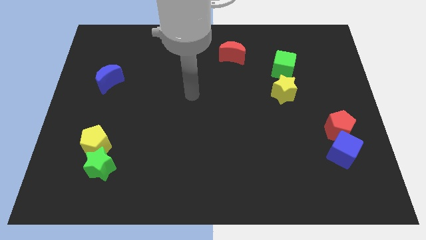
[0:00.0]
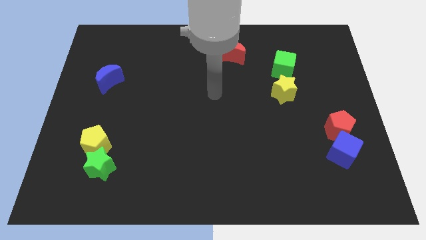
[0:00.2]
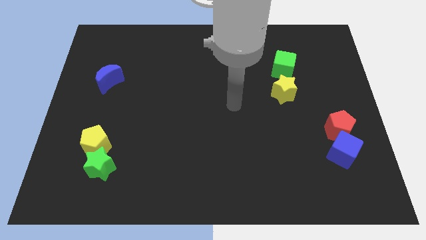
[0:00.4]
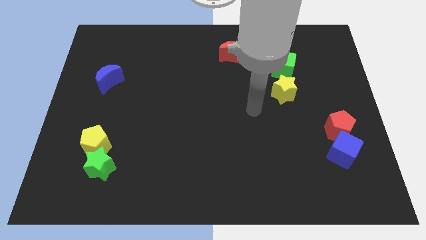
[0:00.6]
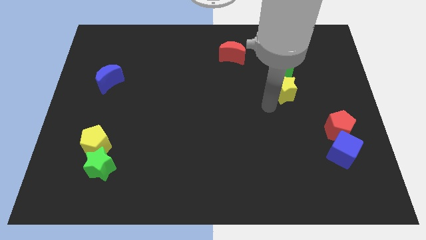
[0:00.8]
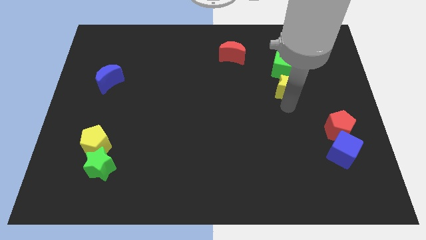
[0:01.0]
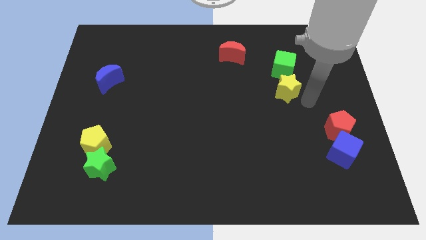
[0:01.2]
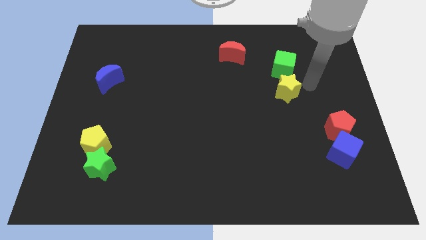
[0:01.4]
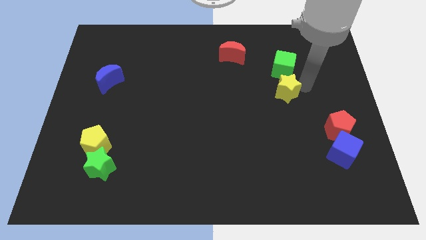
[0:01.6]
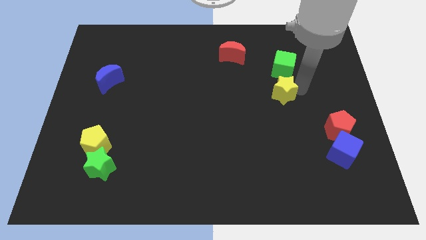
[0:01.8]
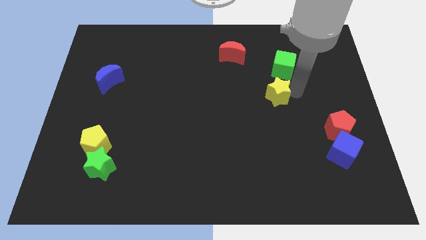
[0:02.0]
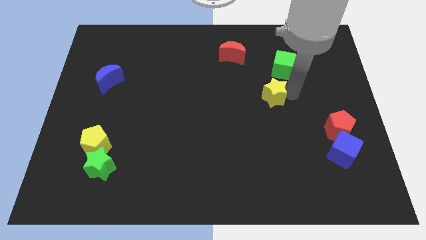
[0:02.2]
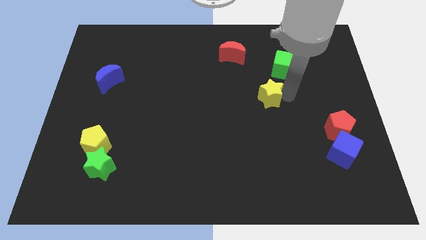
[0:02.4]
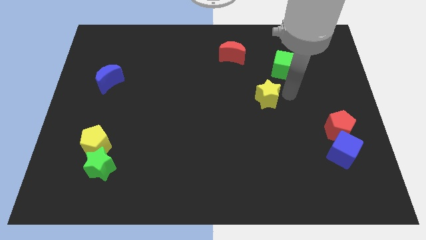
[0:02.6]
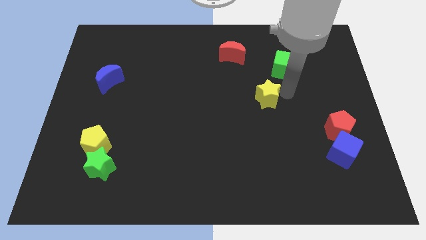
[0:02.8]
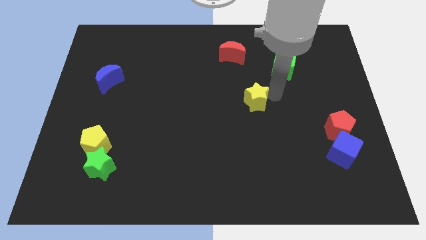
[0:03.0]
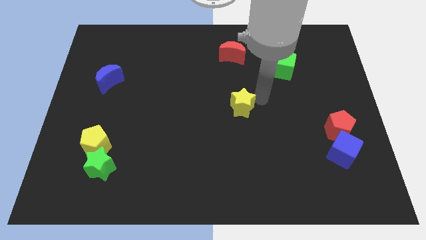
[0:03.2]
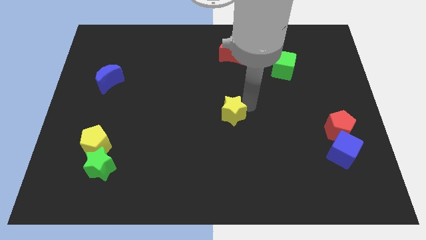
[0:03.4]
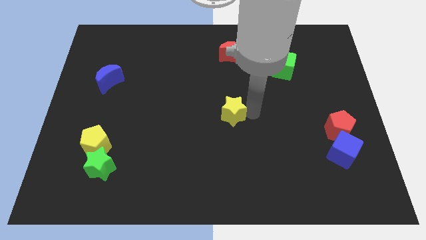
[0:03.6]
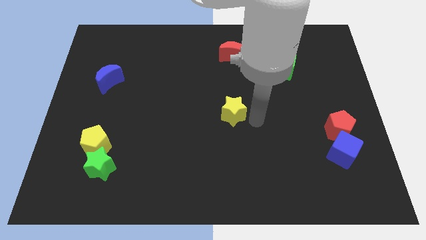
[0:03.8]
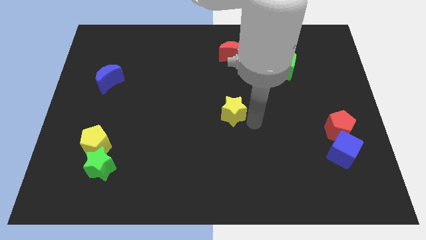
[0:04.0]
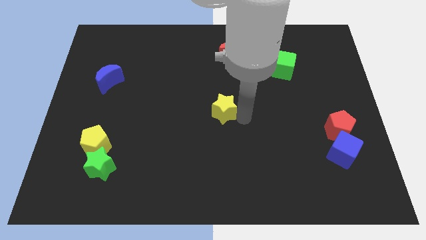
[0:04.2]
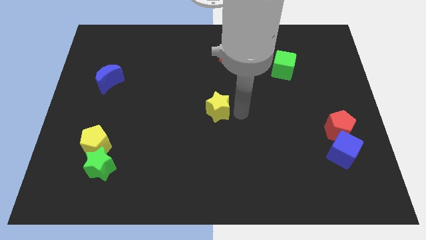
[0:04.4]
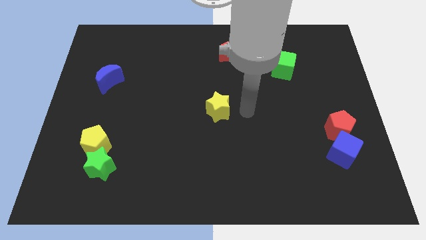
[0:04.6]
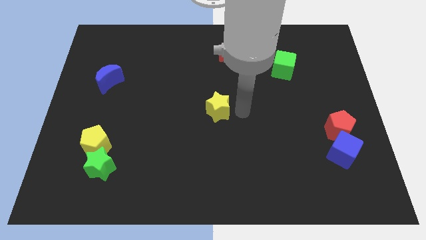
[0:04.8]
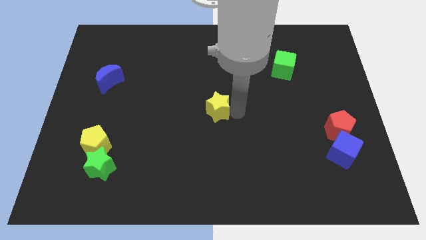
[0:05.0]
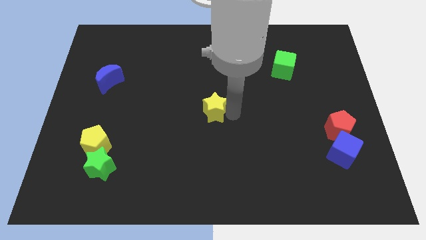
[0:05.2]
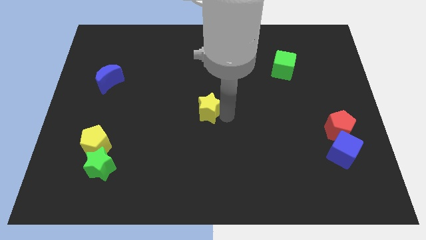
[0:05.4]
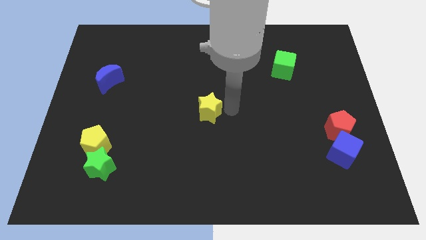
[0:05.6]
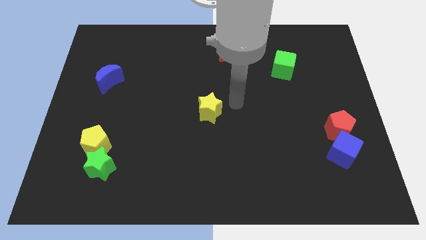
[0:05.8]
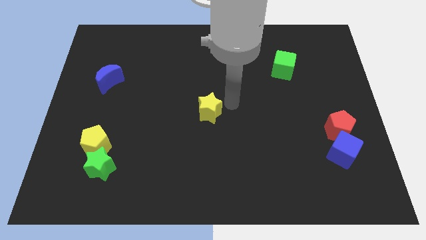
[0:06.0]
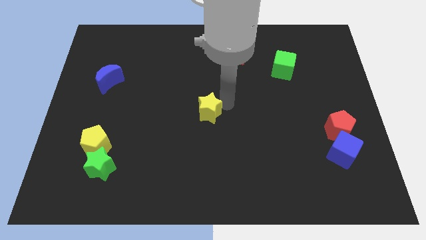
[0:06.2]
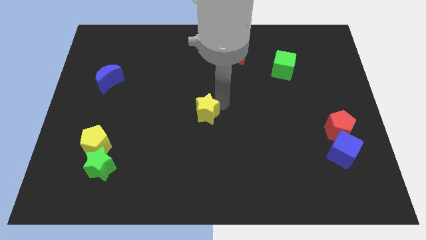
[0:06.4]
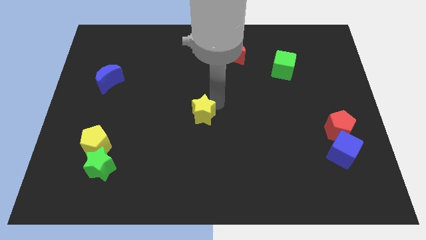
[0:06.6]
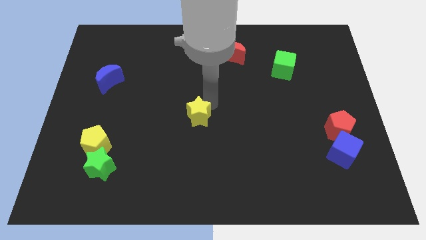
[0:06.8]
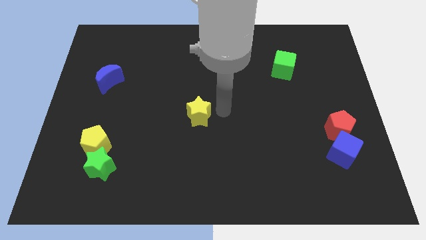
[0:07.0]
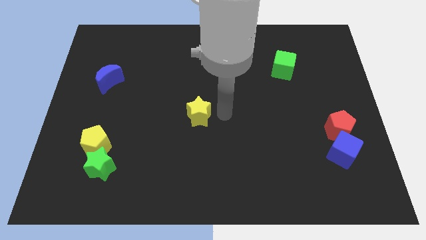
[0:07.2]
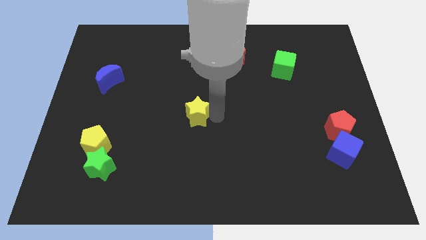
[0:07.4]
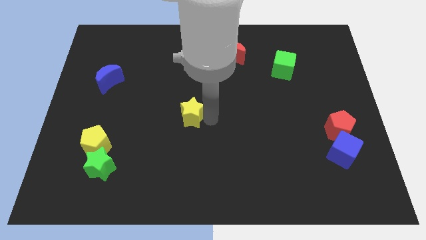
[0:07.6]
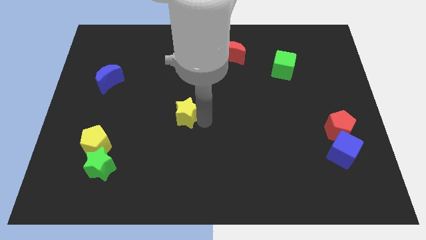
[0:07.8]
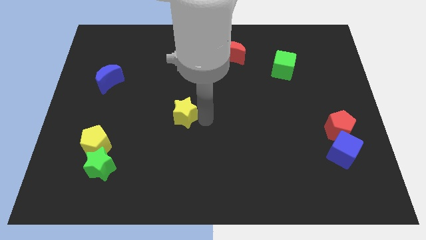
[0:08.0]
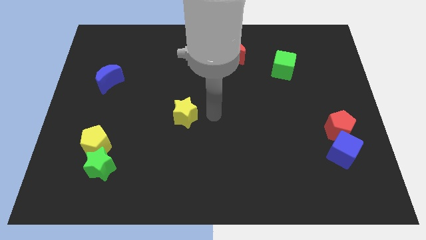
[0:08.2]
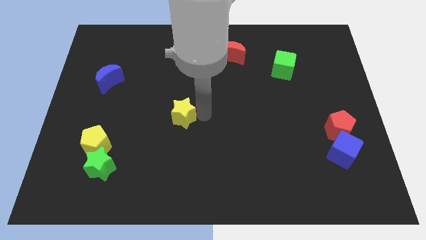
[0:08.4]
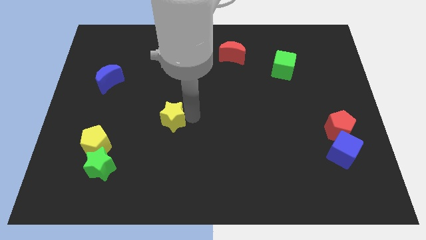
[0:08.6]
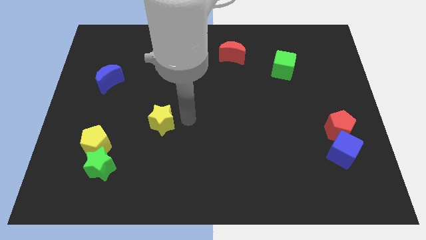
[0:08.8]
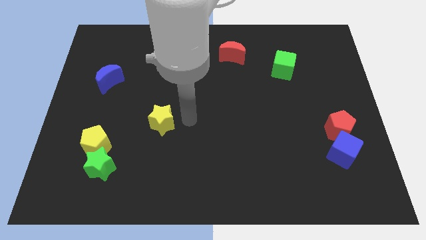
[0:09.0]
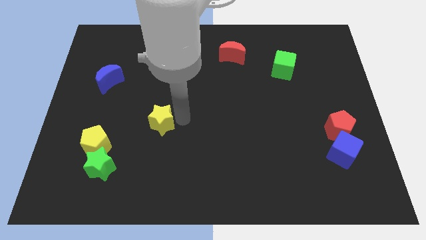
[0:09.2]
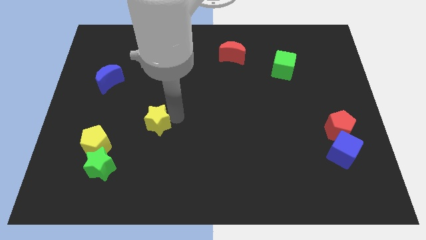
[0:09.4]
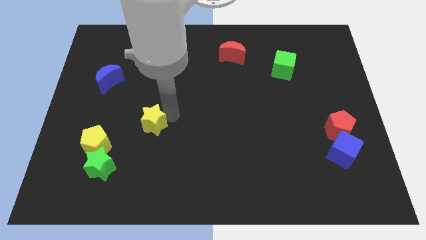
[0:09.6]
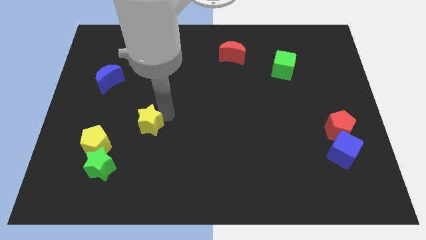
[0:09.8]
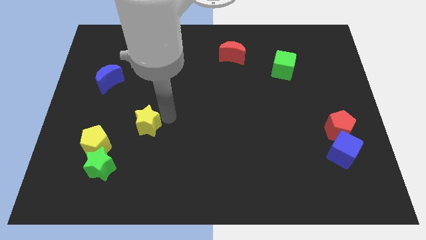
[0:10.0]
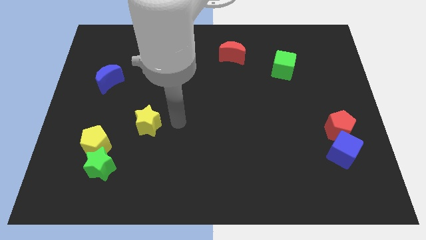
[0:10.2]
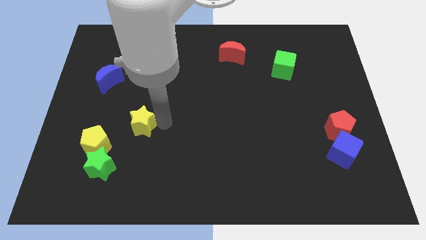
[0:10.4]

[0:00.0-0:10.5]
slide the yellow star diagonally up and to the right of the yellow pentagon

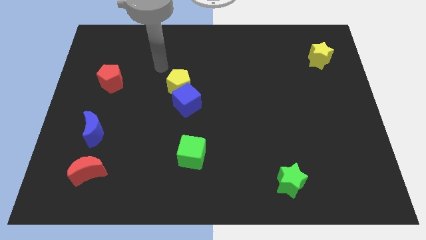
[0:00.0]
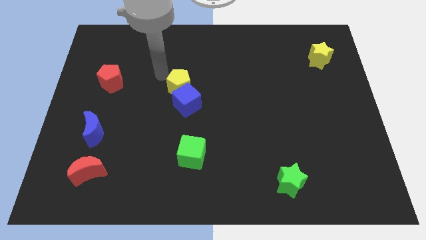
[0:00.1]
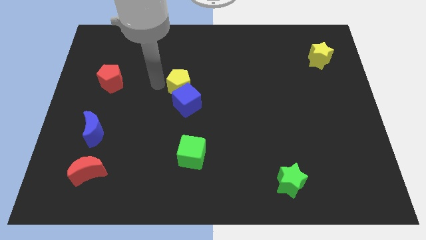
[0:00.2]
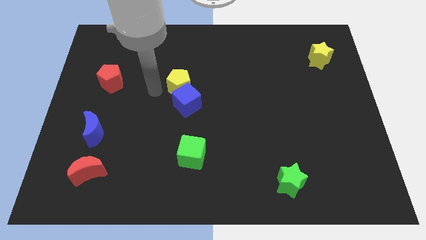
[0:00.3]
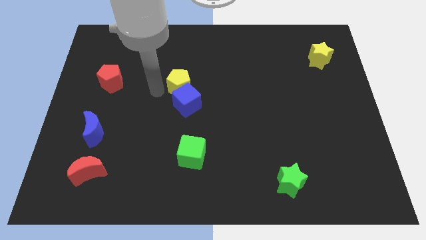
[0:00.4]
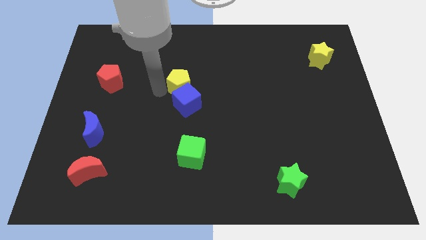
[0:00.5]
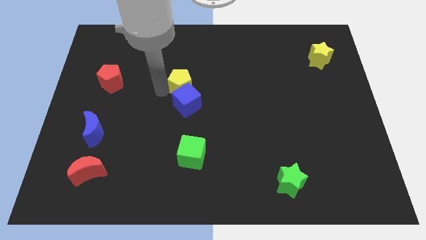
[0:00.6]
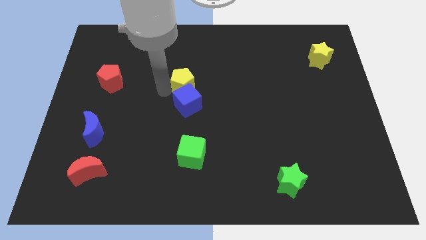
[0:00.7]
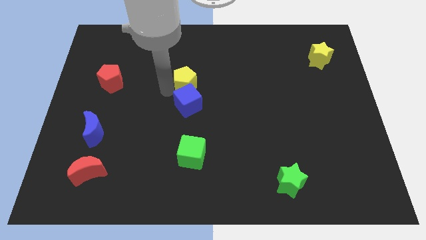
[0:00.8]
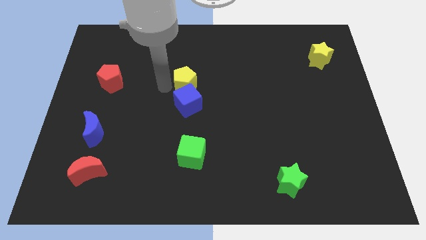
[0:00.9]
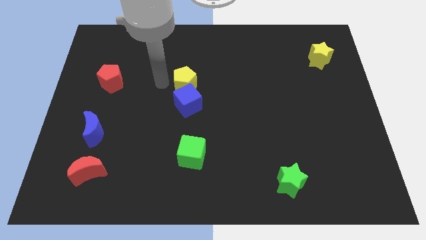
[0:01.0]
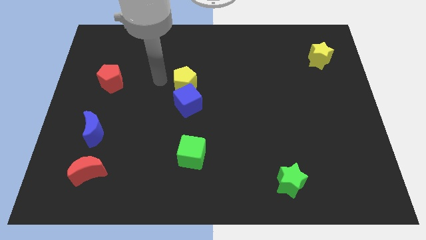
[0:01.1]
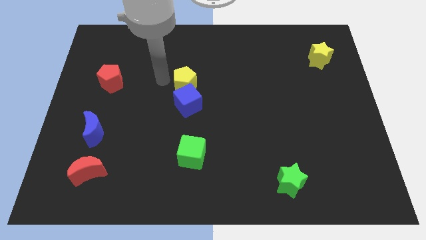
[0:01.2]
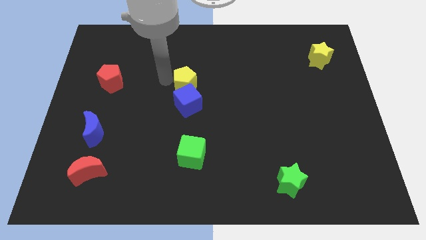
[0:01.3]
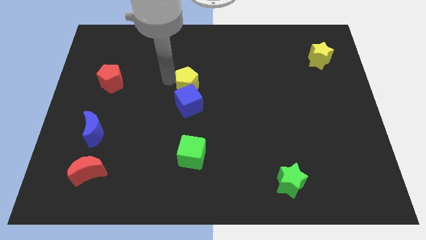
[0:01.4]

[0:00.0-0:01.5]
push the yellow pentagon to the top right of the blue cube
